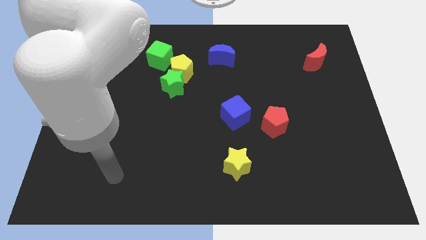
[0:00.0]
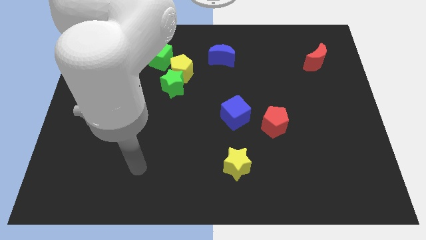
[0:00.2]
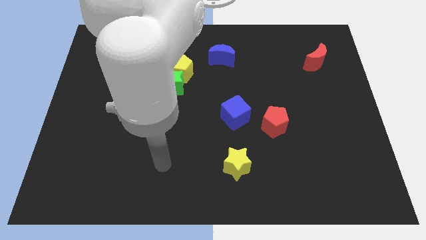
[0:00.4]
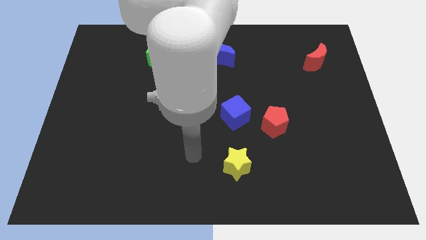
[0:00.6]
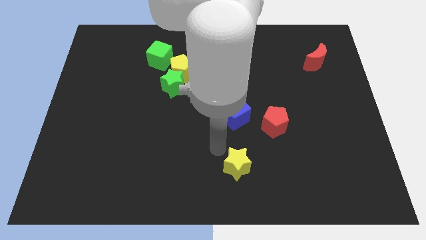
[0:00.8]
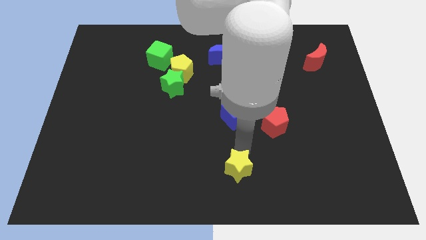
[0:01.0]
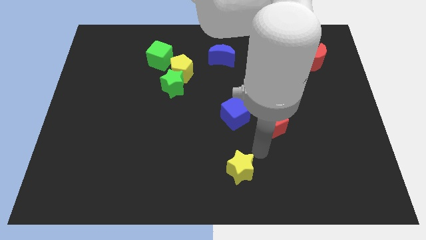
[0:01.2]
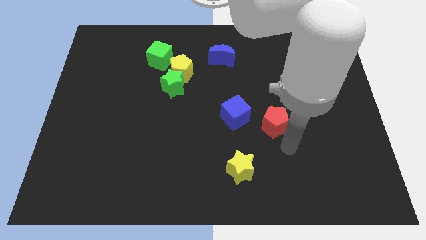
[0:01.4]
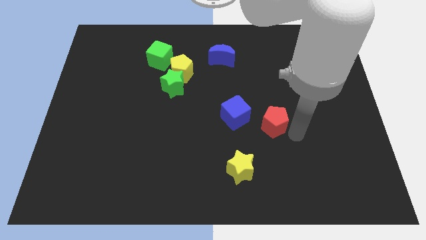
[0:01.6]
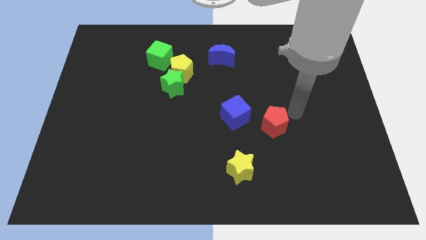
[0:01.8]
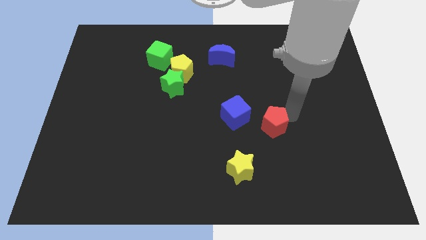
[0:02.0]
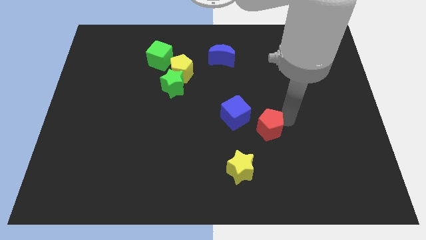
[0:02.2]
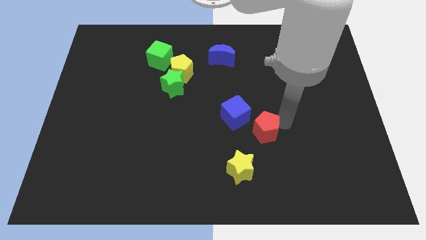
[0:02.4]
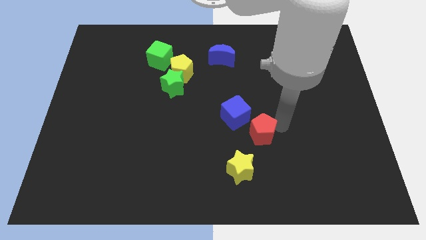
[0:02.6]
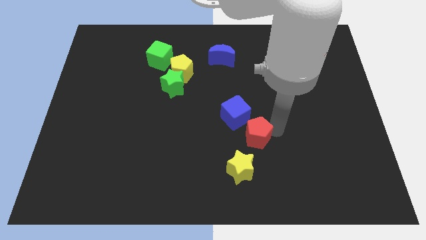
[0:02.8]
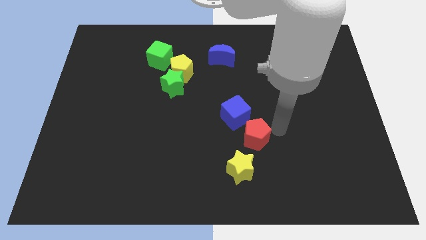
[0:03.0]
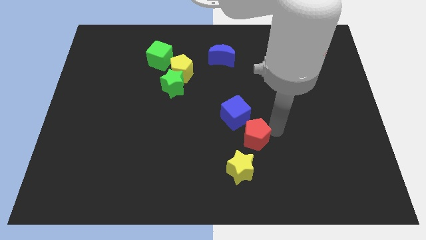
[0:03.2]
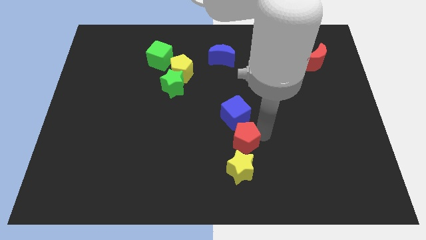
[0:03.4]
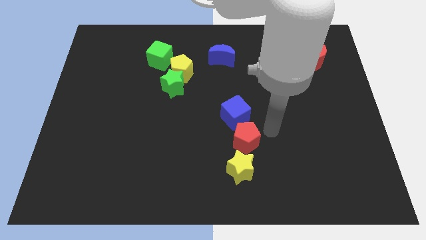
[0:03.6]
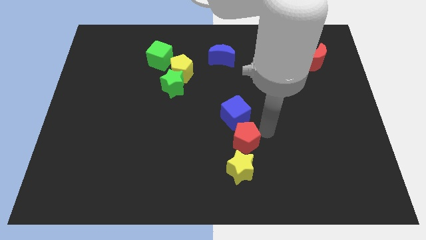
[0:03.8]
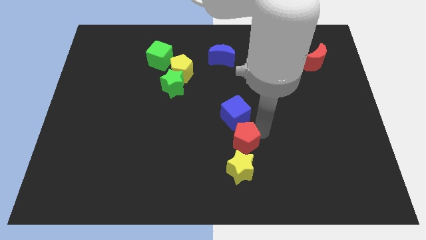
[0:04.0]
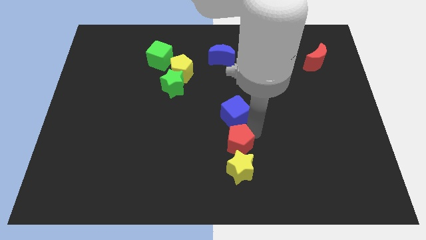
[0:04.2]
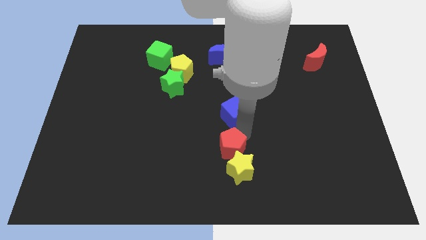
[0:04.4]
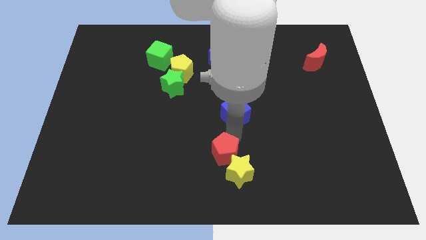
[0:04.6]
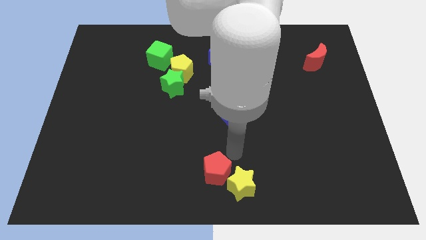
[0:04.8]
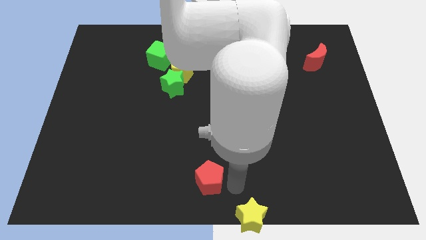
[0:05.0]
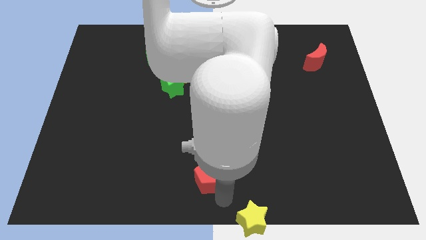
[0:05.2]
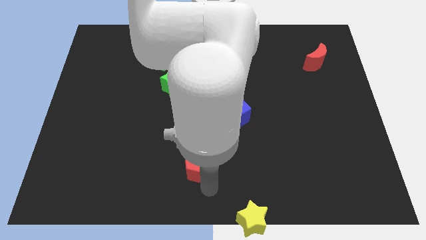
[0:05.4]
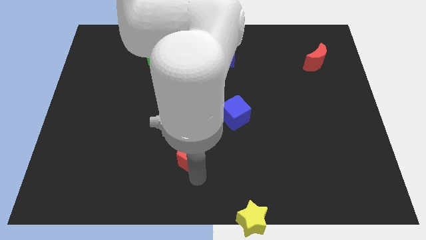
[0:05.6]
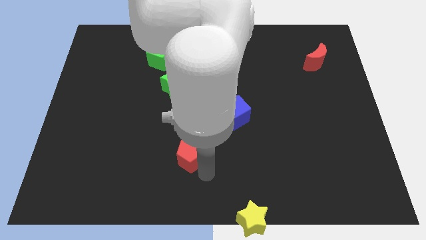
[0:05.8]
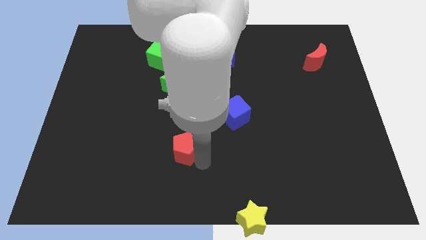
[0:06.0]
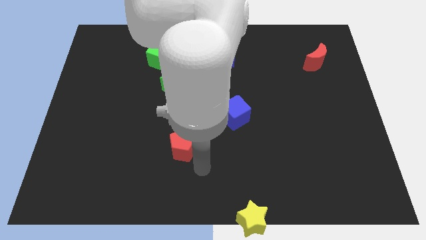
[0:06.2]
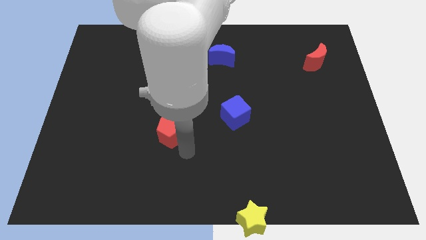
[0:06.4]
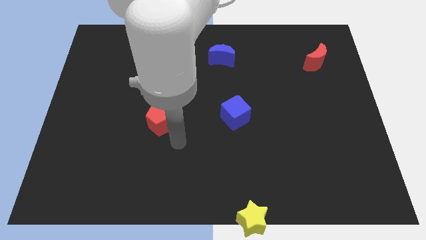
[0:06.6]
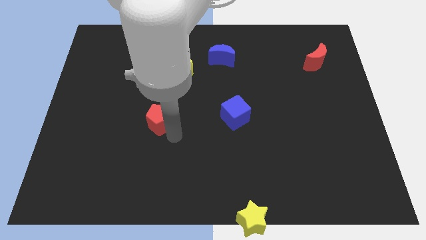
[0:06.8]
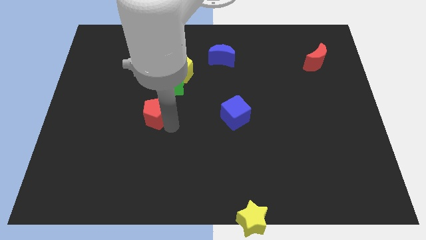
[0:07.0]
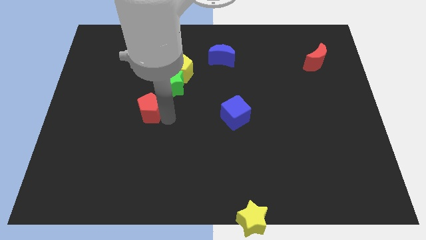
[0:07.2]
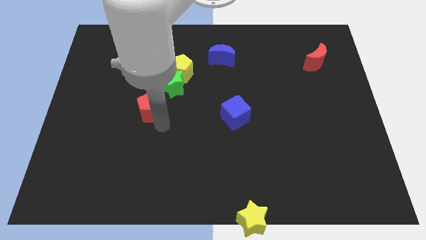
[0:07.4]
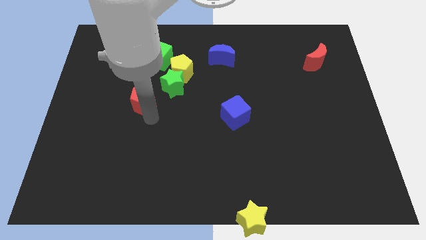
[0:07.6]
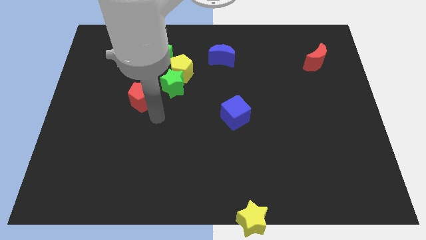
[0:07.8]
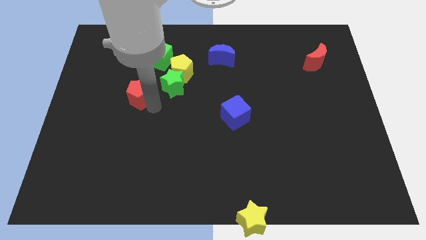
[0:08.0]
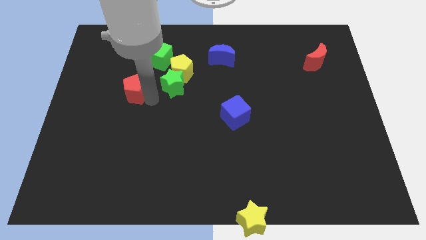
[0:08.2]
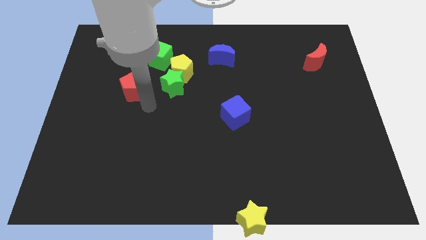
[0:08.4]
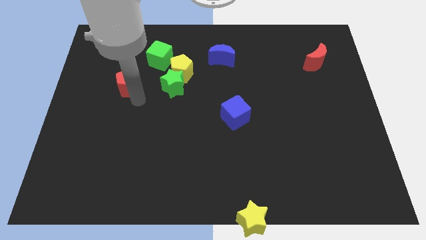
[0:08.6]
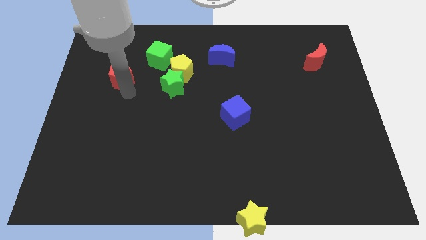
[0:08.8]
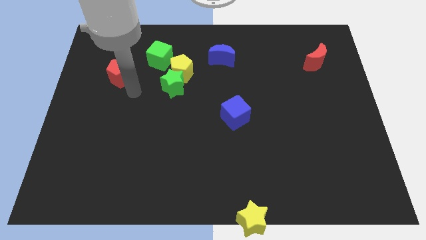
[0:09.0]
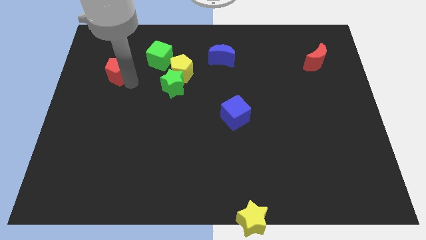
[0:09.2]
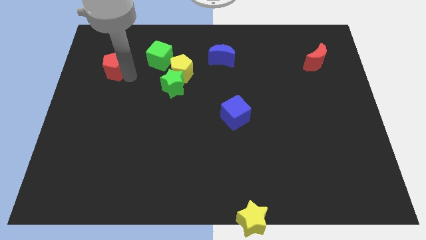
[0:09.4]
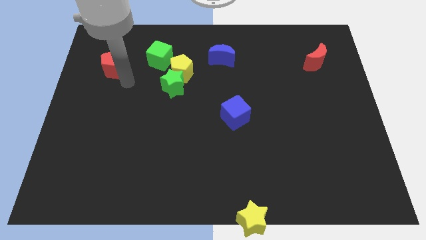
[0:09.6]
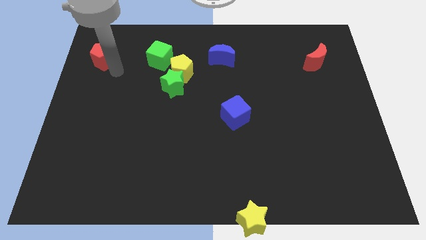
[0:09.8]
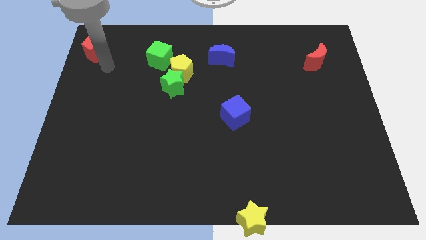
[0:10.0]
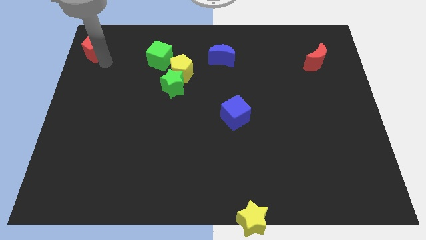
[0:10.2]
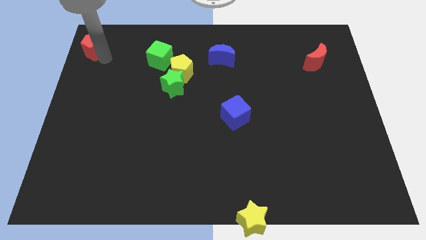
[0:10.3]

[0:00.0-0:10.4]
slide the red pentagon to the upper left corner

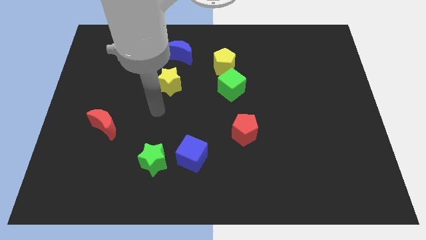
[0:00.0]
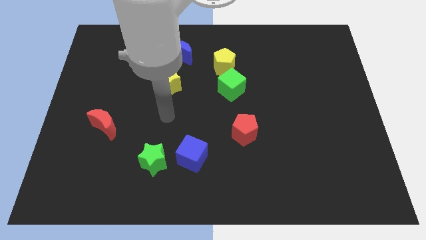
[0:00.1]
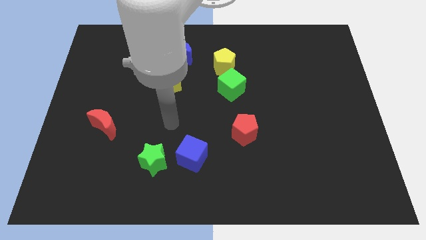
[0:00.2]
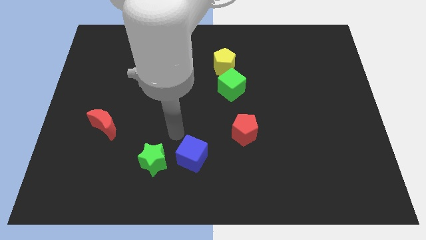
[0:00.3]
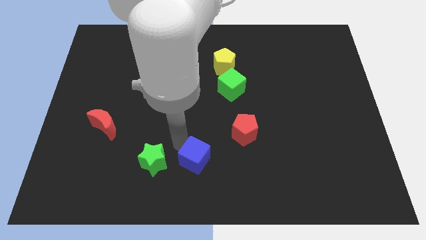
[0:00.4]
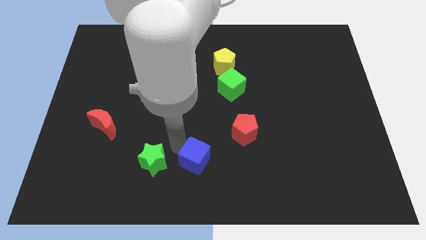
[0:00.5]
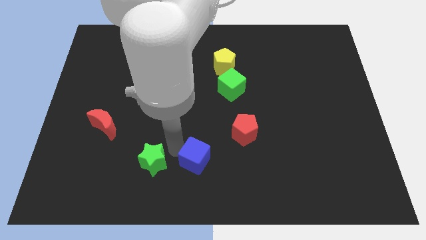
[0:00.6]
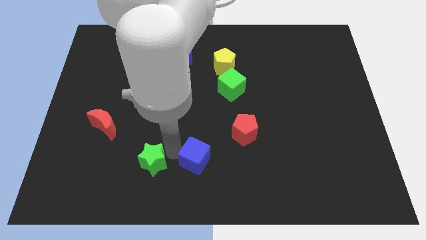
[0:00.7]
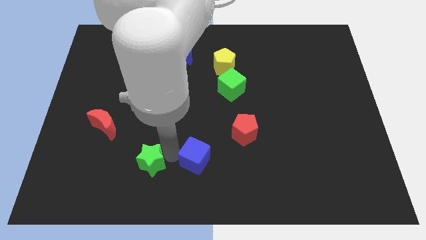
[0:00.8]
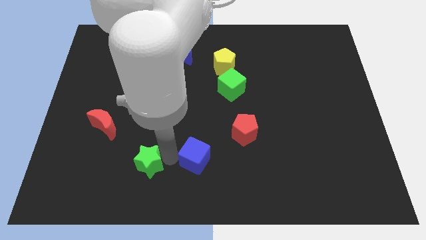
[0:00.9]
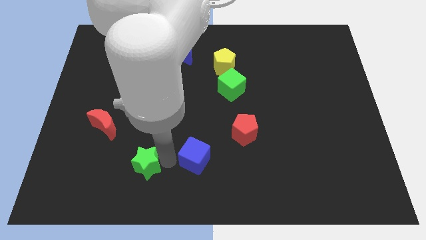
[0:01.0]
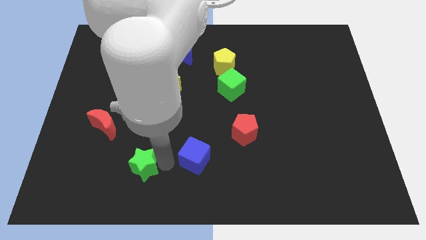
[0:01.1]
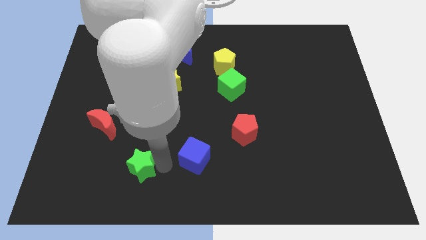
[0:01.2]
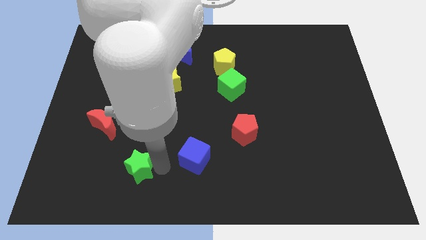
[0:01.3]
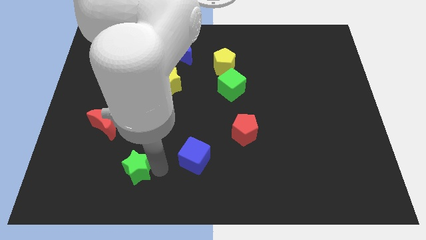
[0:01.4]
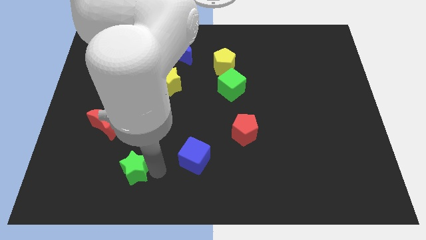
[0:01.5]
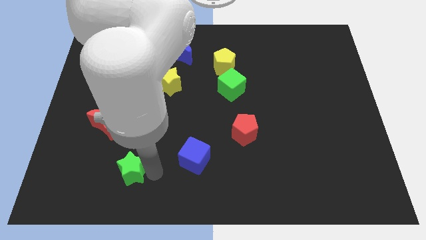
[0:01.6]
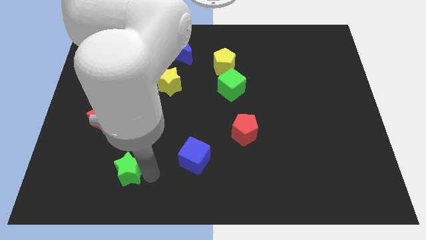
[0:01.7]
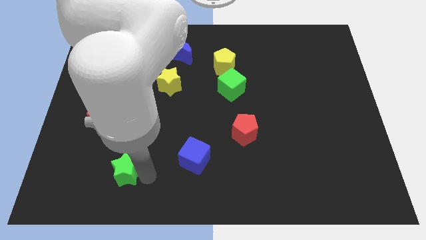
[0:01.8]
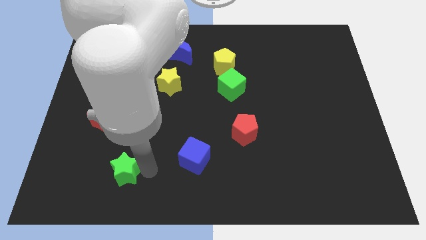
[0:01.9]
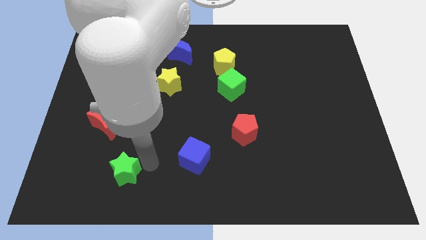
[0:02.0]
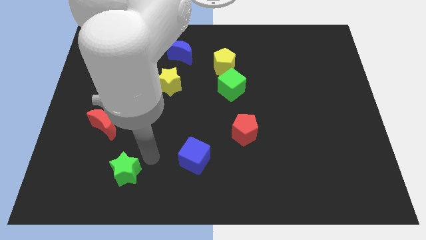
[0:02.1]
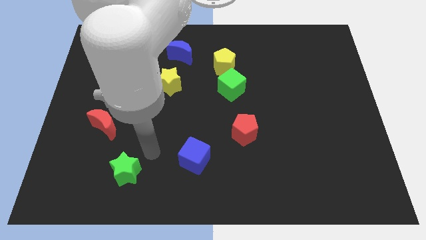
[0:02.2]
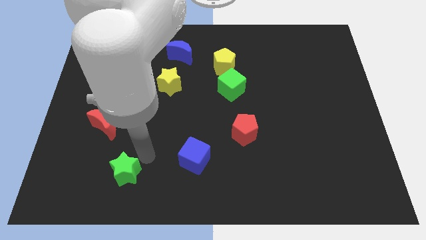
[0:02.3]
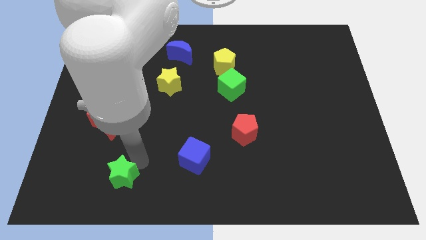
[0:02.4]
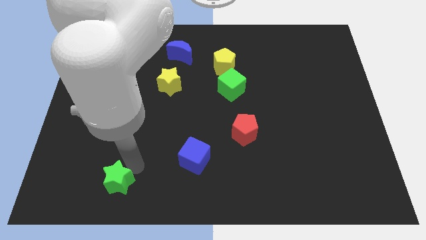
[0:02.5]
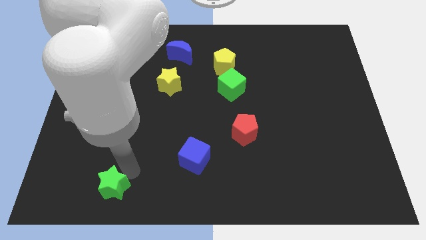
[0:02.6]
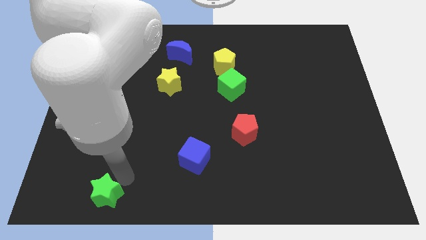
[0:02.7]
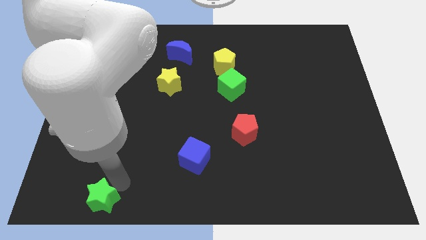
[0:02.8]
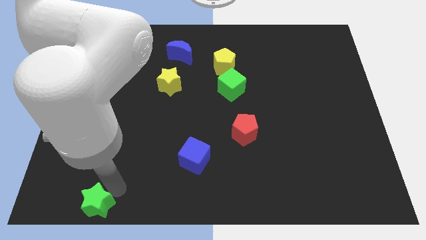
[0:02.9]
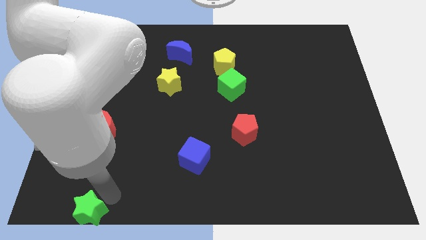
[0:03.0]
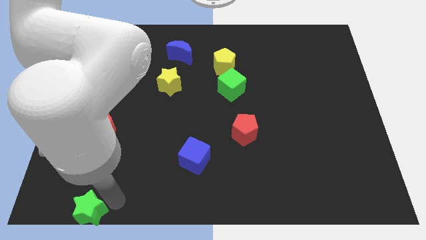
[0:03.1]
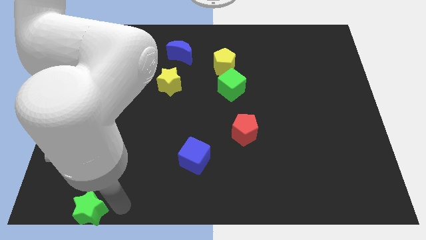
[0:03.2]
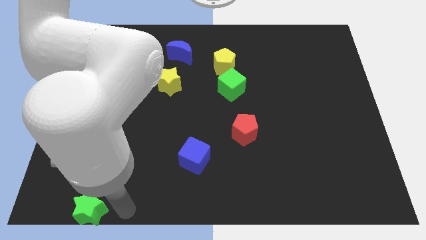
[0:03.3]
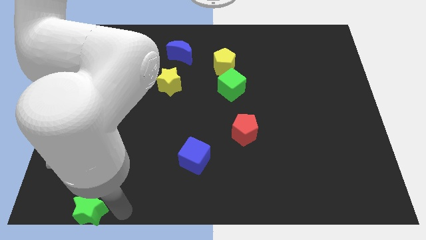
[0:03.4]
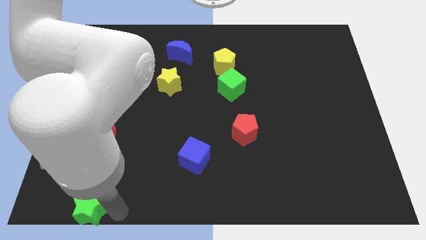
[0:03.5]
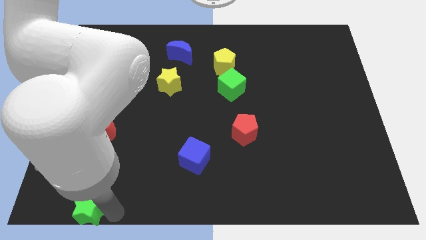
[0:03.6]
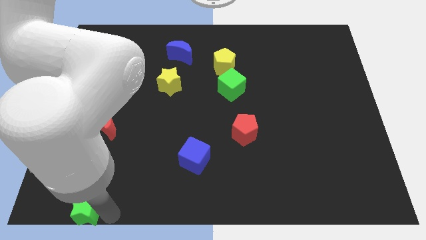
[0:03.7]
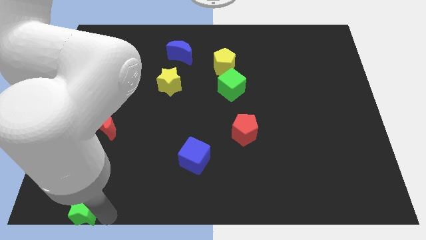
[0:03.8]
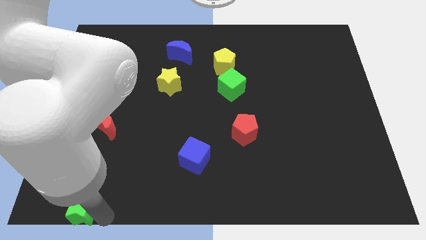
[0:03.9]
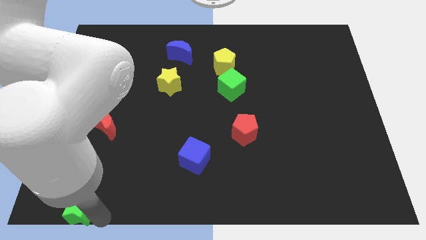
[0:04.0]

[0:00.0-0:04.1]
put the green star to the lower left corner
